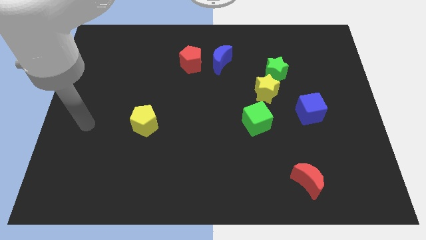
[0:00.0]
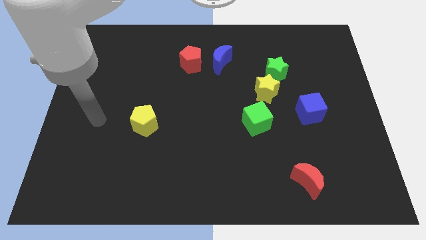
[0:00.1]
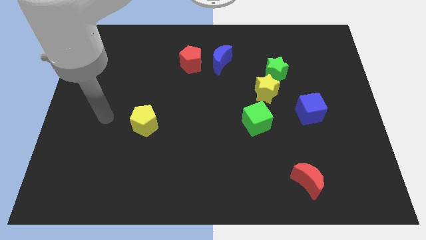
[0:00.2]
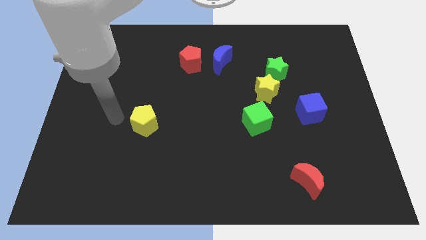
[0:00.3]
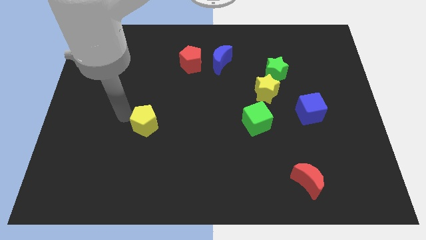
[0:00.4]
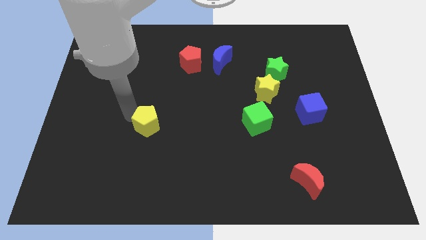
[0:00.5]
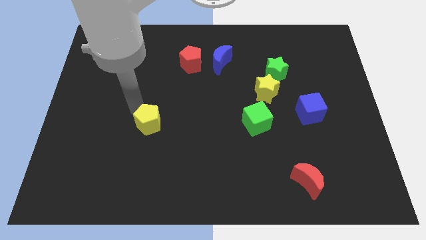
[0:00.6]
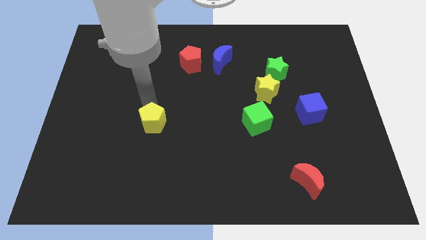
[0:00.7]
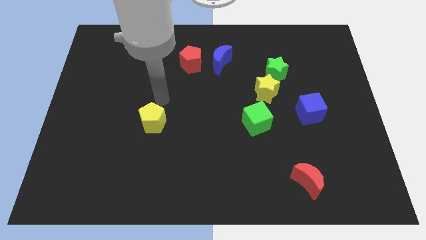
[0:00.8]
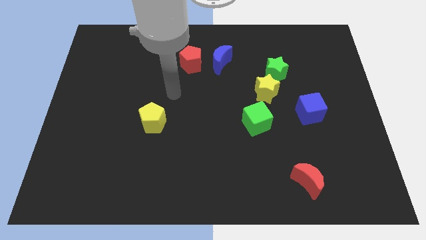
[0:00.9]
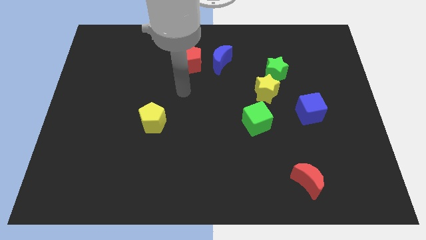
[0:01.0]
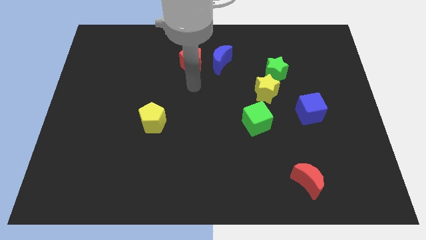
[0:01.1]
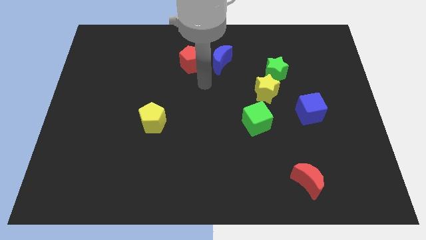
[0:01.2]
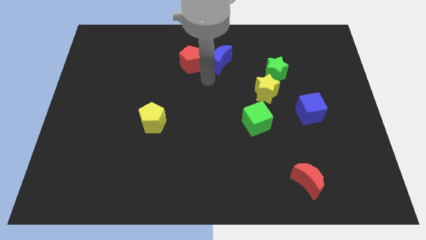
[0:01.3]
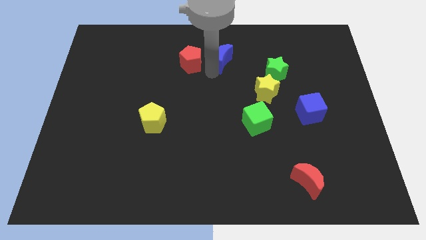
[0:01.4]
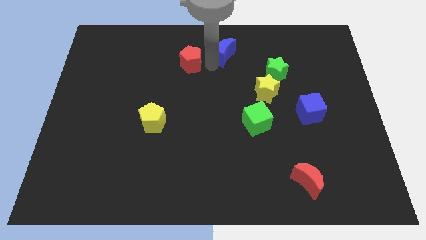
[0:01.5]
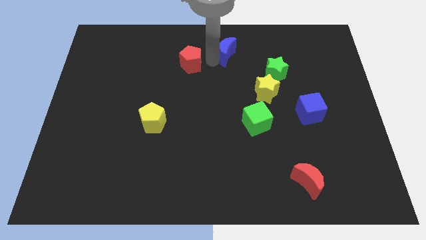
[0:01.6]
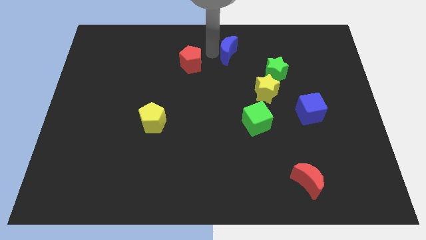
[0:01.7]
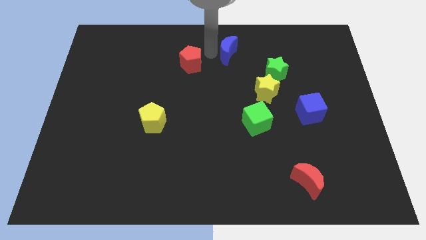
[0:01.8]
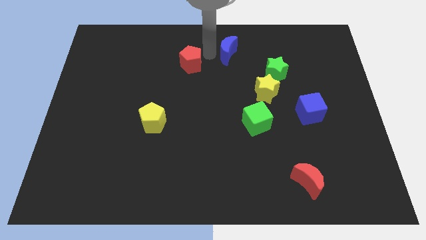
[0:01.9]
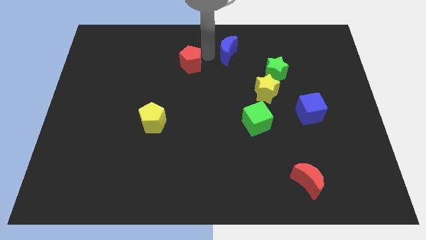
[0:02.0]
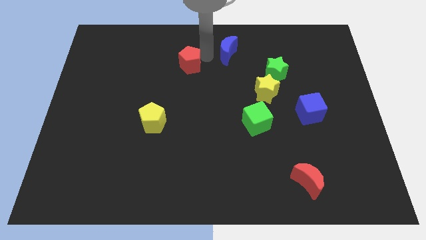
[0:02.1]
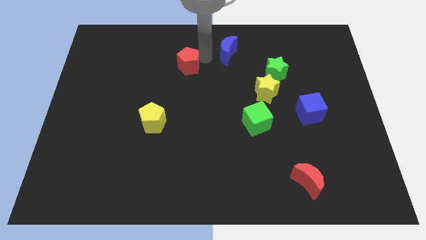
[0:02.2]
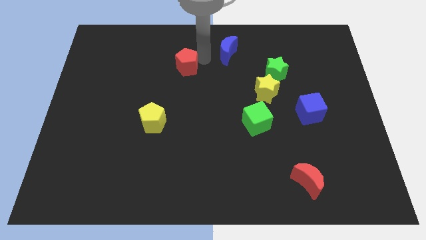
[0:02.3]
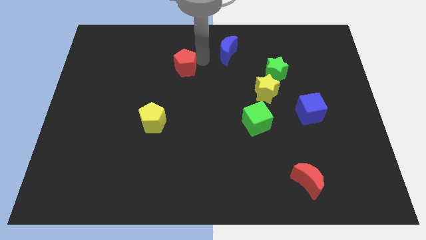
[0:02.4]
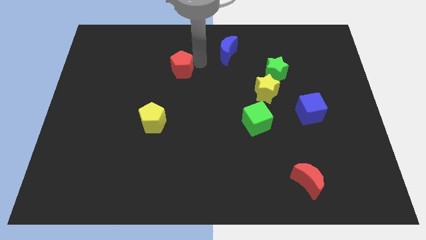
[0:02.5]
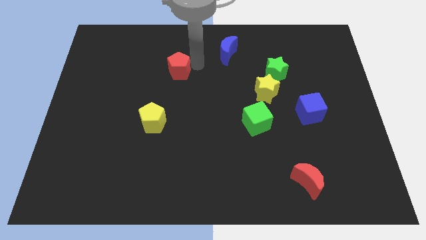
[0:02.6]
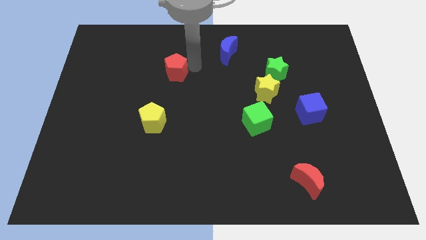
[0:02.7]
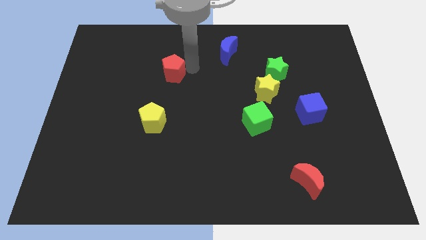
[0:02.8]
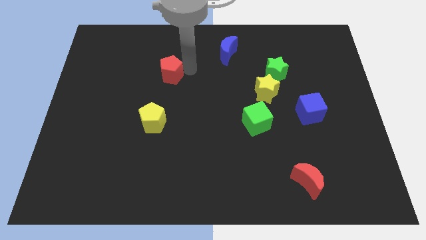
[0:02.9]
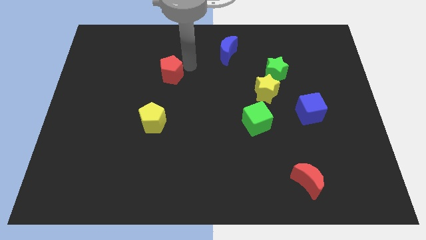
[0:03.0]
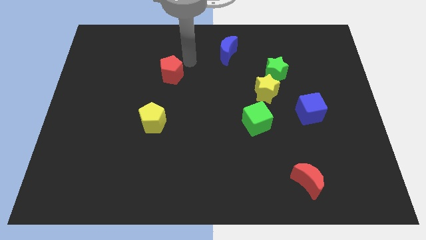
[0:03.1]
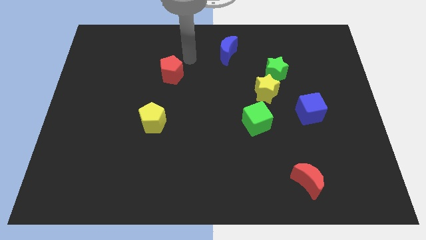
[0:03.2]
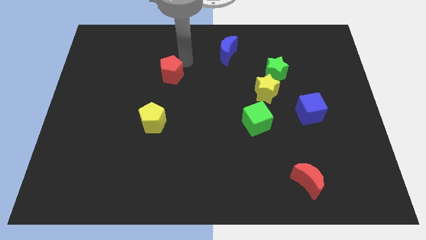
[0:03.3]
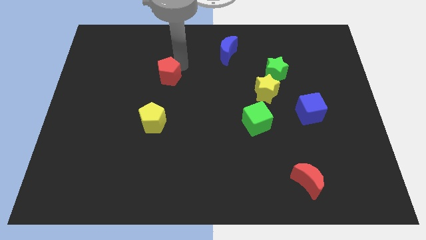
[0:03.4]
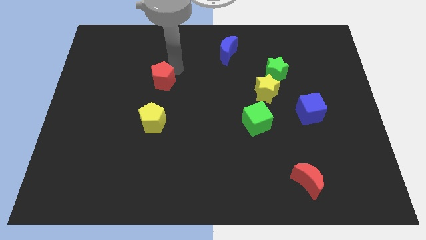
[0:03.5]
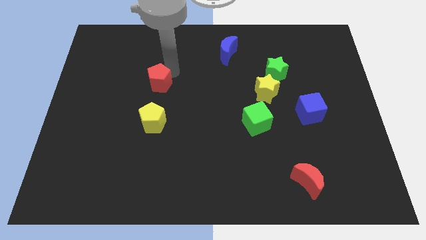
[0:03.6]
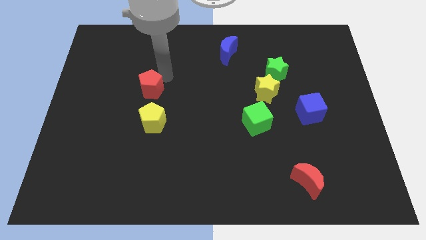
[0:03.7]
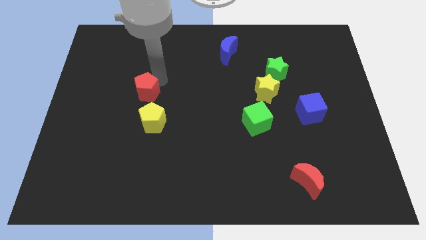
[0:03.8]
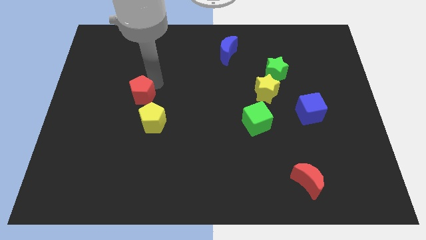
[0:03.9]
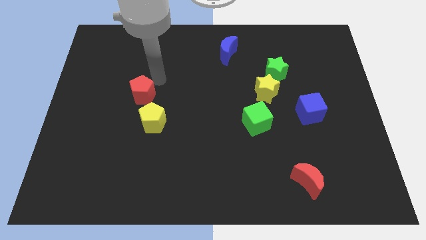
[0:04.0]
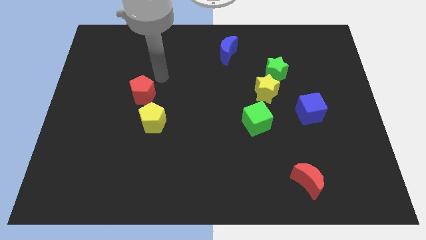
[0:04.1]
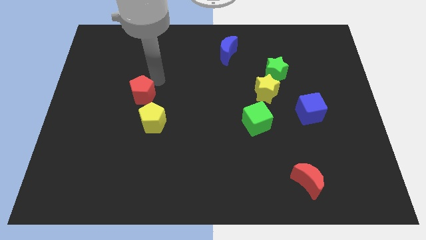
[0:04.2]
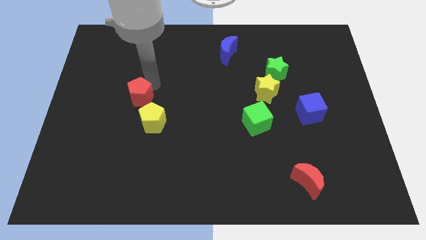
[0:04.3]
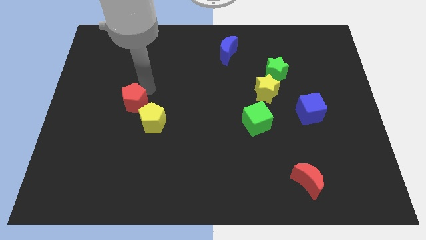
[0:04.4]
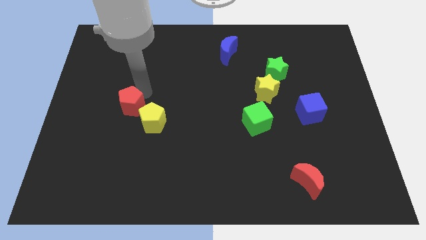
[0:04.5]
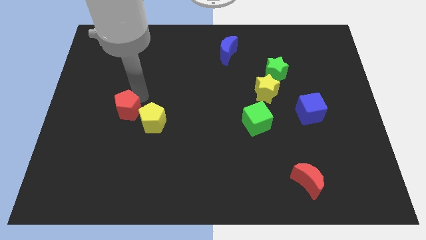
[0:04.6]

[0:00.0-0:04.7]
push the red pentagon downwards and to the left diagonally

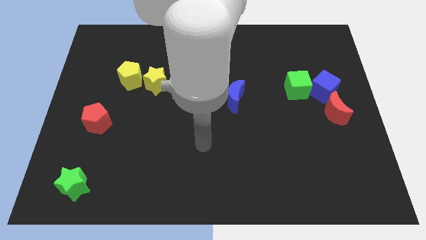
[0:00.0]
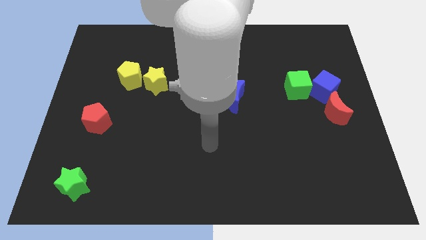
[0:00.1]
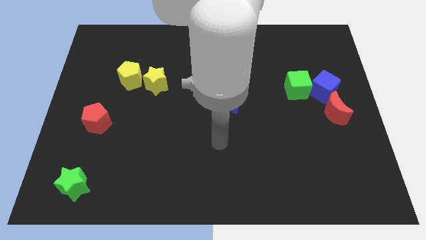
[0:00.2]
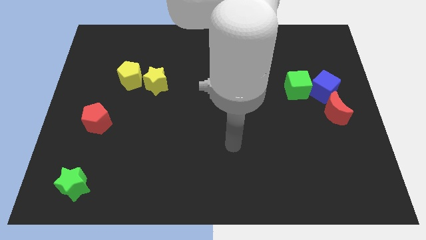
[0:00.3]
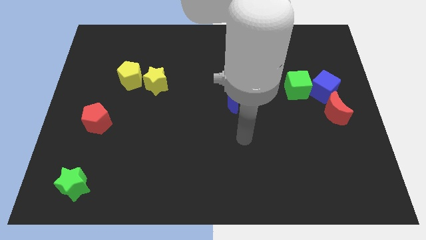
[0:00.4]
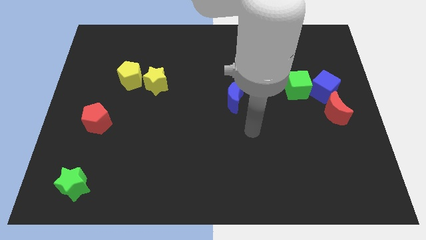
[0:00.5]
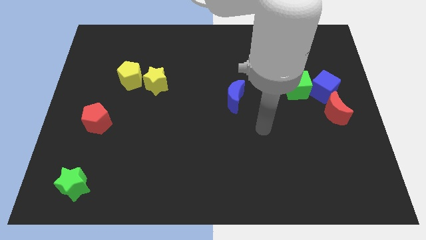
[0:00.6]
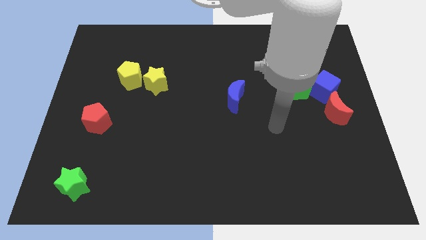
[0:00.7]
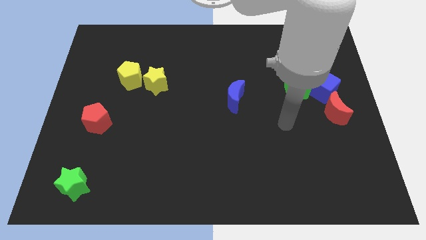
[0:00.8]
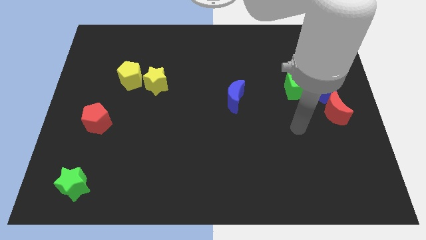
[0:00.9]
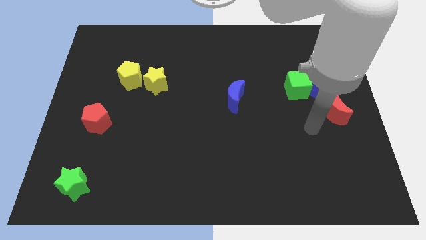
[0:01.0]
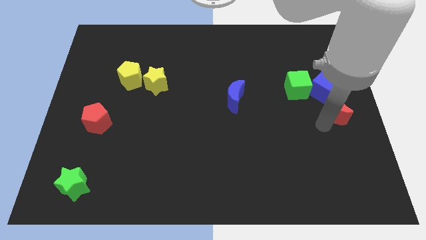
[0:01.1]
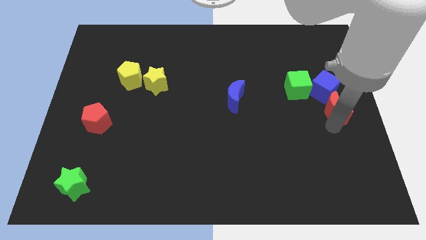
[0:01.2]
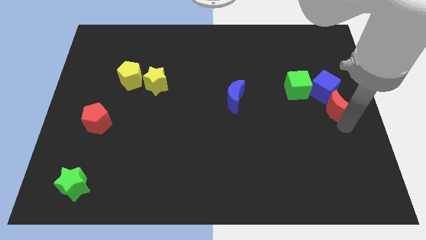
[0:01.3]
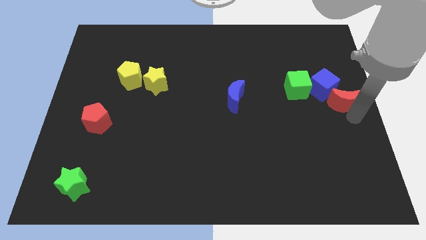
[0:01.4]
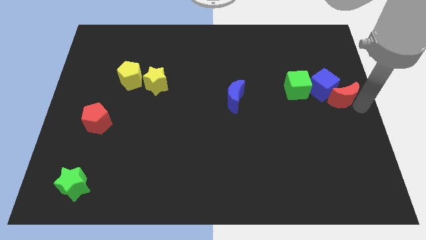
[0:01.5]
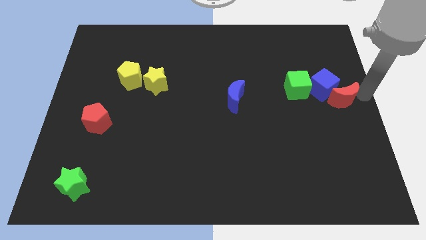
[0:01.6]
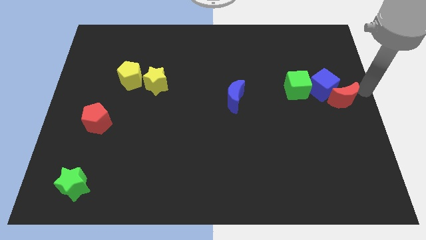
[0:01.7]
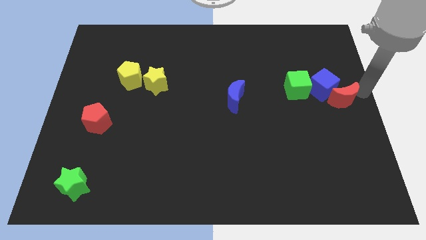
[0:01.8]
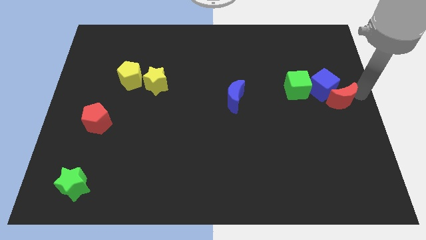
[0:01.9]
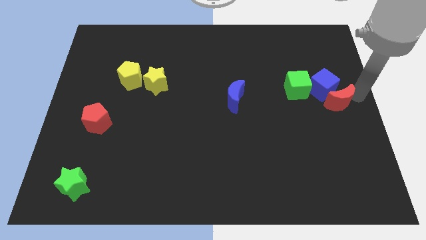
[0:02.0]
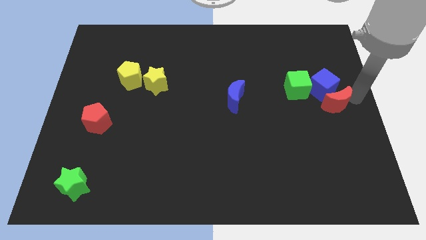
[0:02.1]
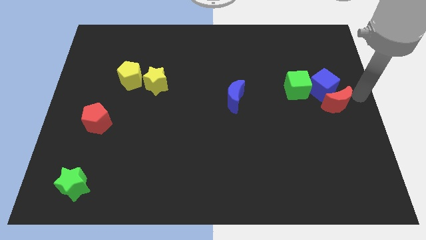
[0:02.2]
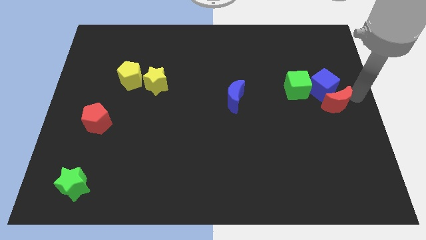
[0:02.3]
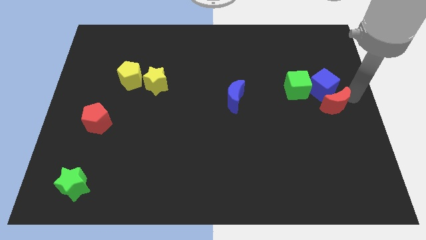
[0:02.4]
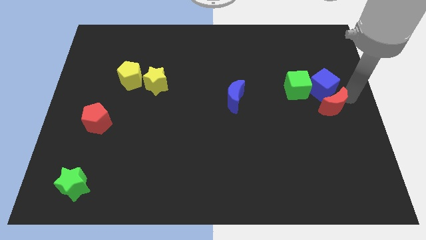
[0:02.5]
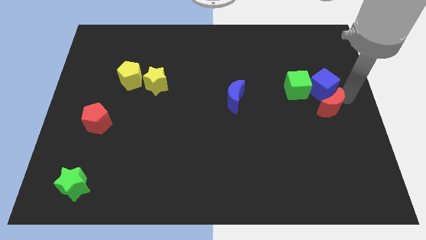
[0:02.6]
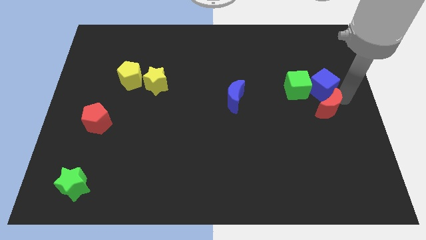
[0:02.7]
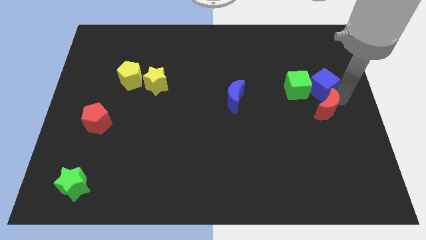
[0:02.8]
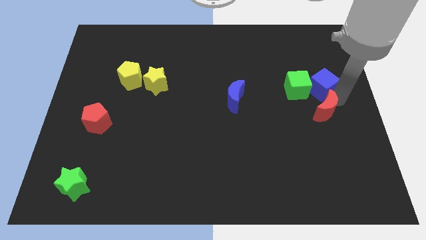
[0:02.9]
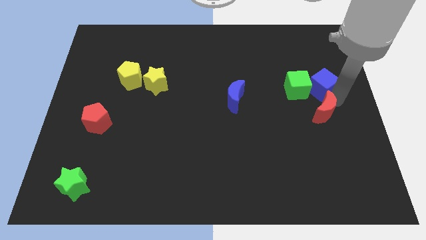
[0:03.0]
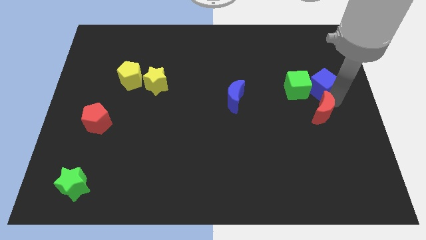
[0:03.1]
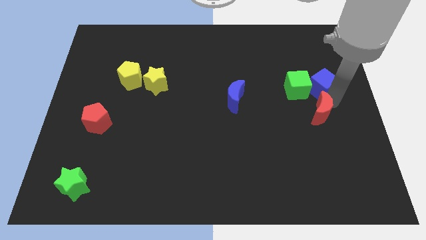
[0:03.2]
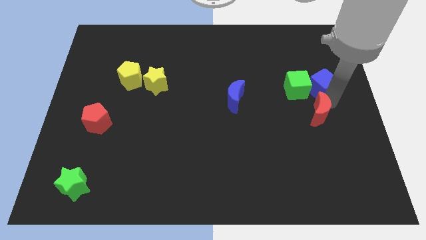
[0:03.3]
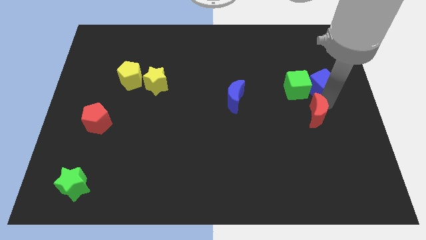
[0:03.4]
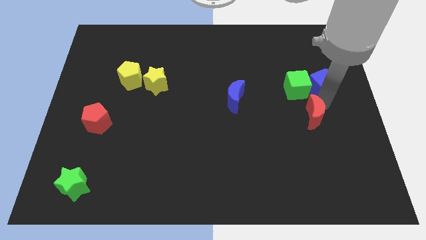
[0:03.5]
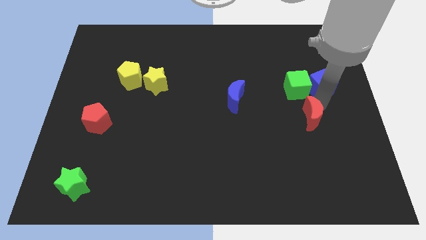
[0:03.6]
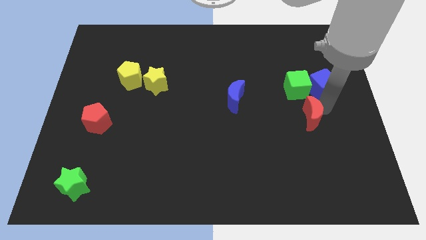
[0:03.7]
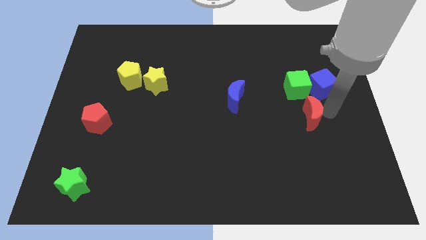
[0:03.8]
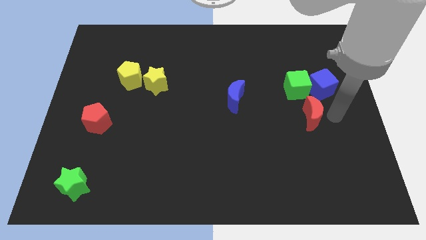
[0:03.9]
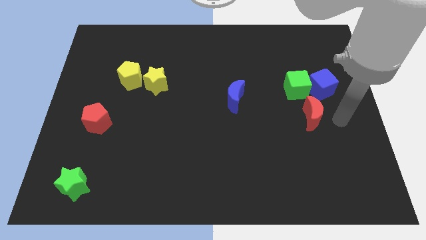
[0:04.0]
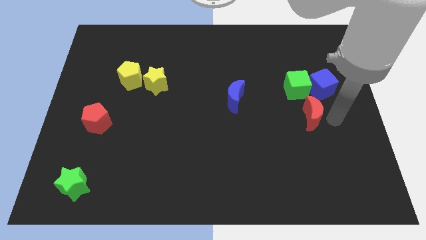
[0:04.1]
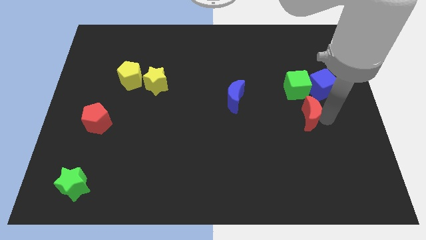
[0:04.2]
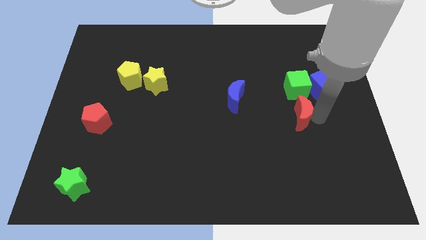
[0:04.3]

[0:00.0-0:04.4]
push the red moon somewhat to the left
